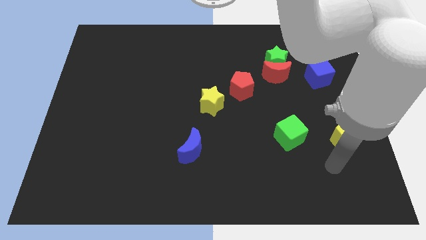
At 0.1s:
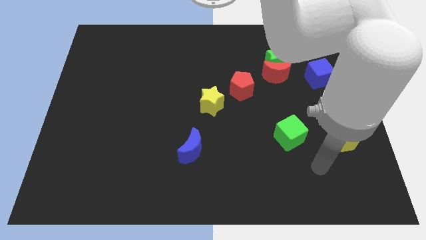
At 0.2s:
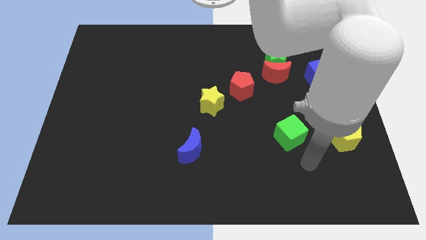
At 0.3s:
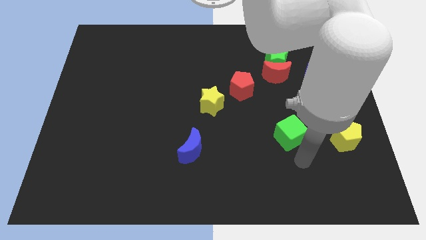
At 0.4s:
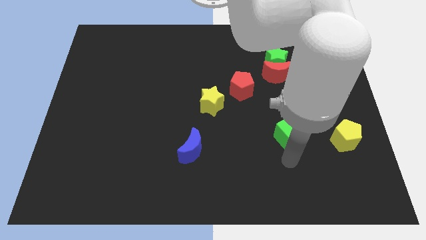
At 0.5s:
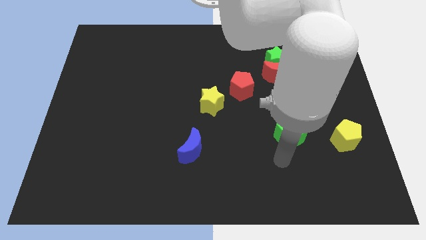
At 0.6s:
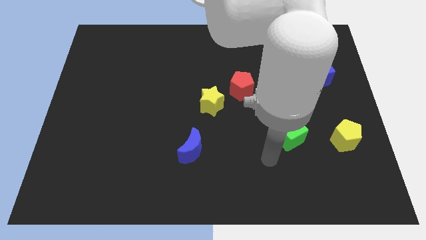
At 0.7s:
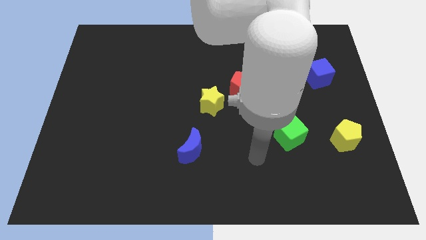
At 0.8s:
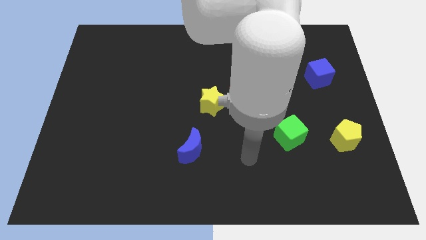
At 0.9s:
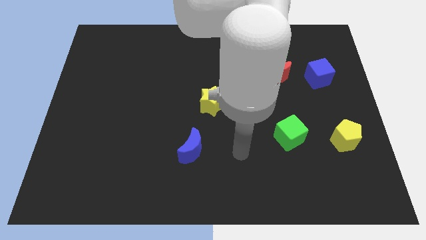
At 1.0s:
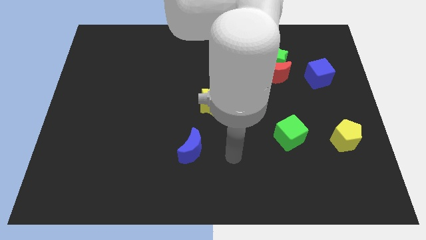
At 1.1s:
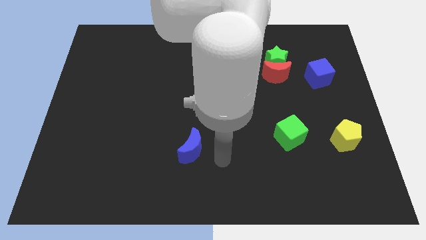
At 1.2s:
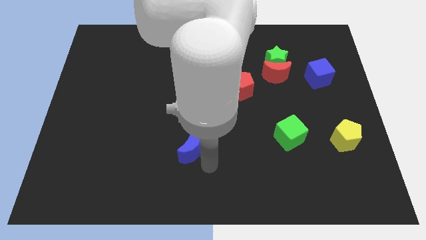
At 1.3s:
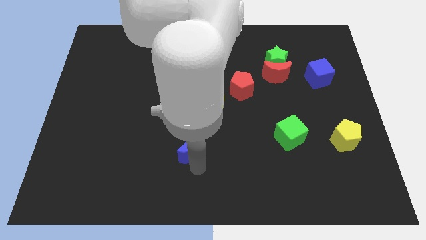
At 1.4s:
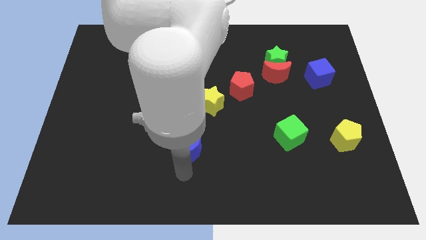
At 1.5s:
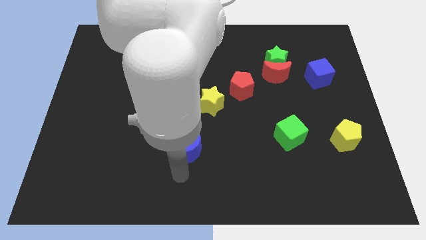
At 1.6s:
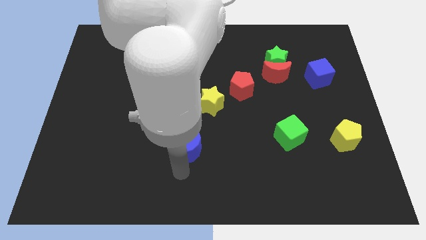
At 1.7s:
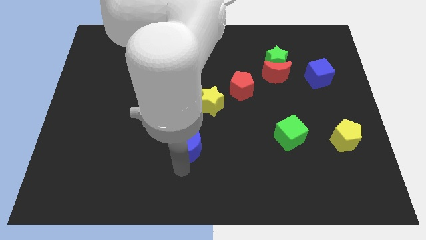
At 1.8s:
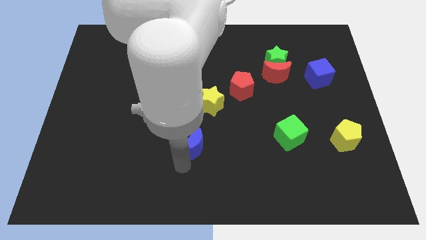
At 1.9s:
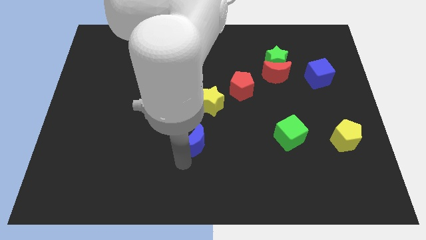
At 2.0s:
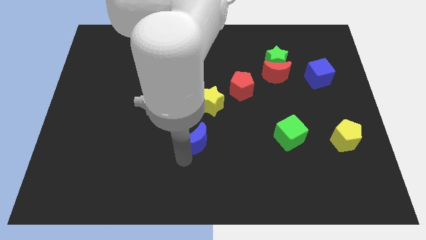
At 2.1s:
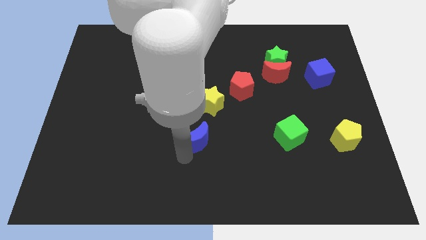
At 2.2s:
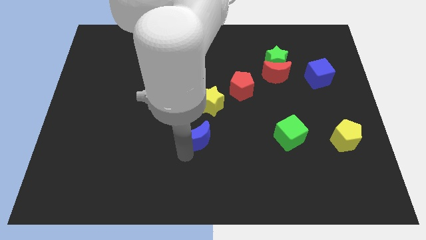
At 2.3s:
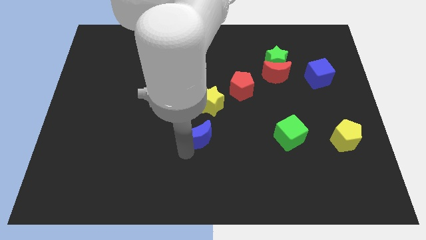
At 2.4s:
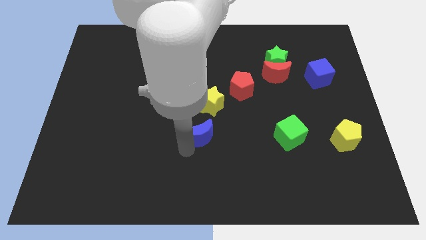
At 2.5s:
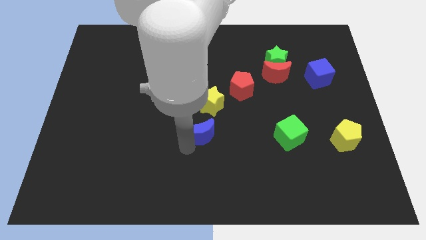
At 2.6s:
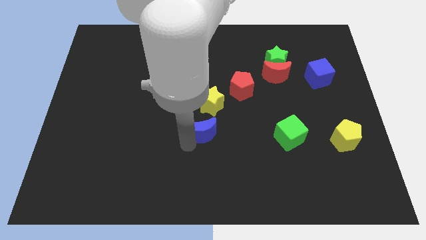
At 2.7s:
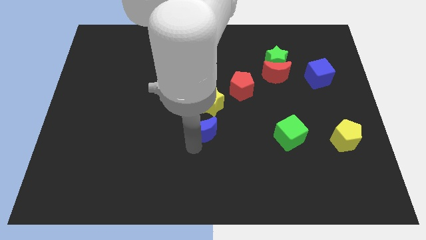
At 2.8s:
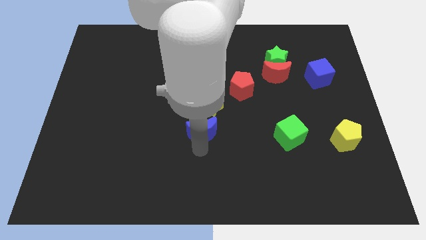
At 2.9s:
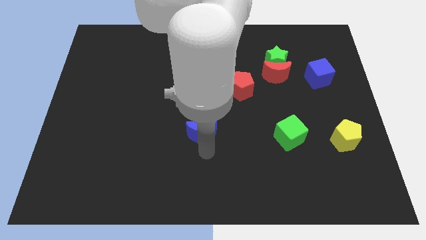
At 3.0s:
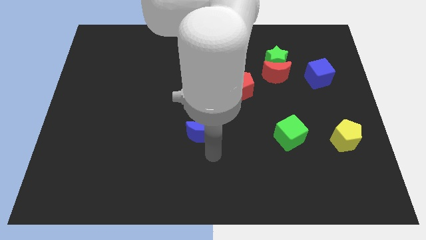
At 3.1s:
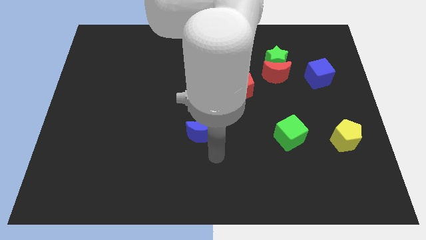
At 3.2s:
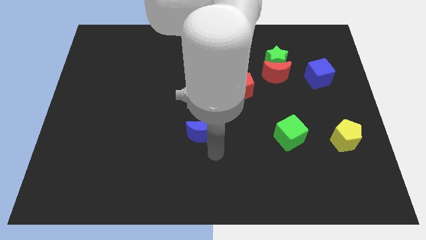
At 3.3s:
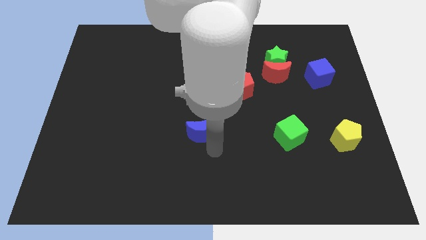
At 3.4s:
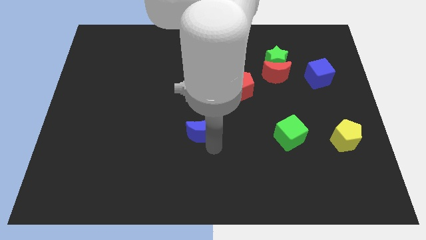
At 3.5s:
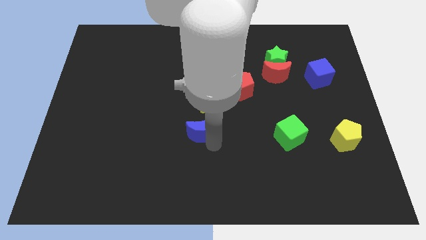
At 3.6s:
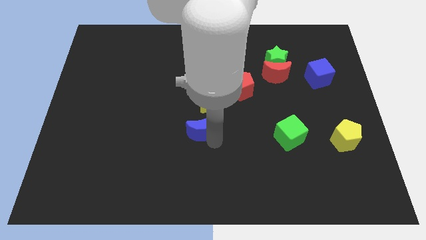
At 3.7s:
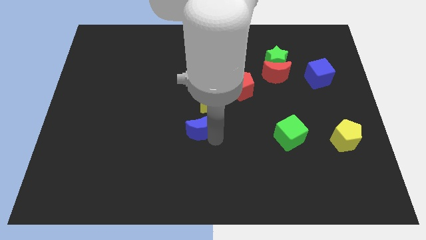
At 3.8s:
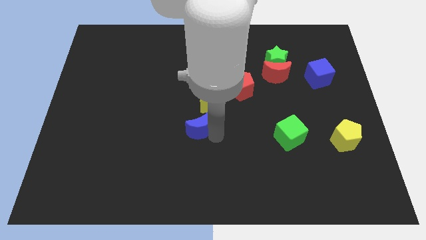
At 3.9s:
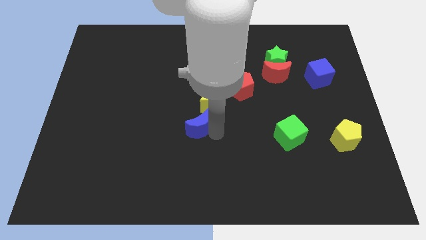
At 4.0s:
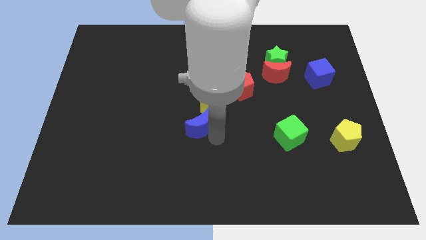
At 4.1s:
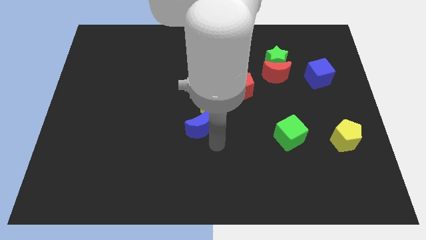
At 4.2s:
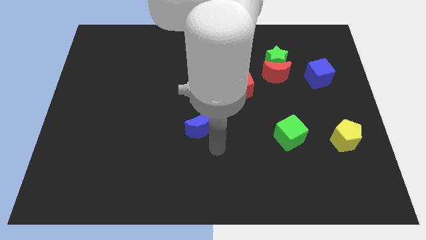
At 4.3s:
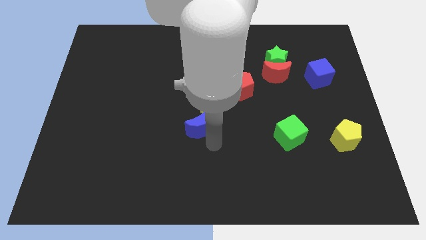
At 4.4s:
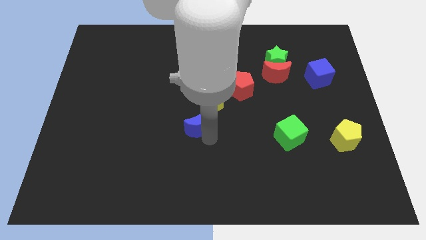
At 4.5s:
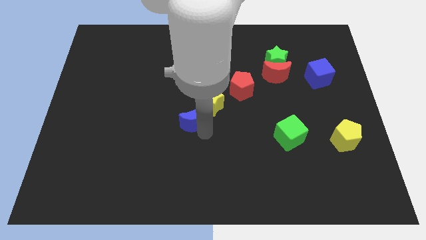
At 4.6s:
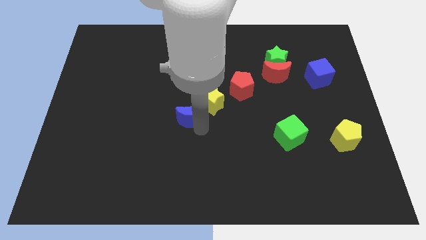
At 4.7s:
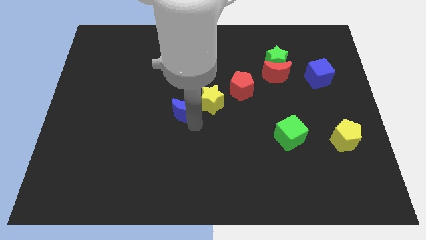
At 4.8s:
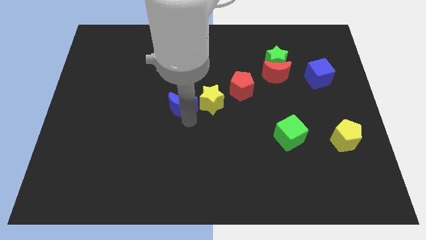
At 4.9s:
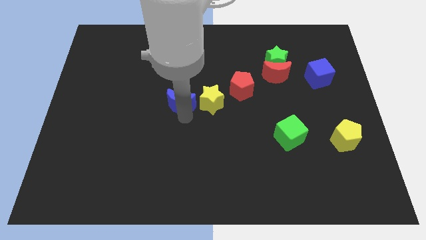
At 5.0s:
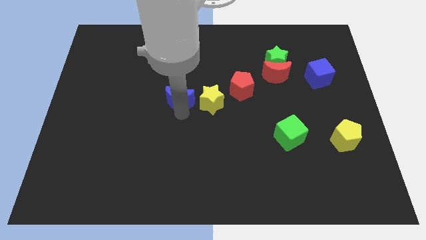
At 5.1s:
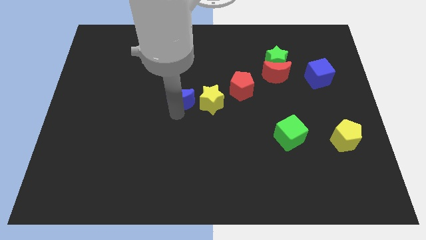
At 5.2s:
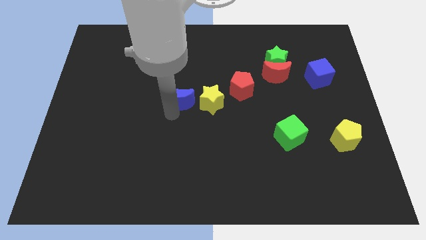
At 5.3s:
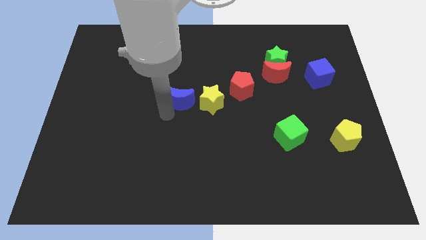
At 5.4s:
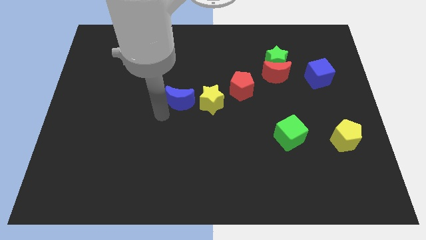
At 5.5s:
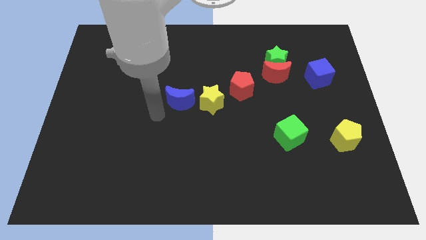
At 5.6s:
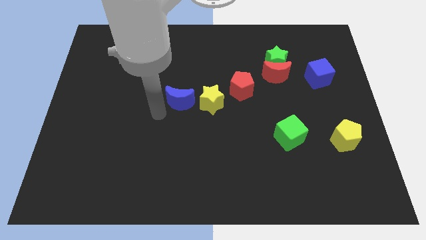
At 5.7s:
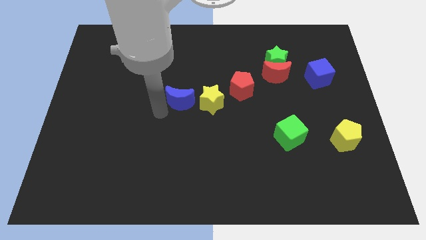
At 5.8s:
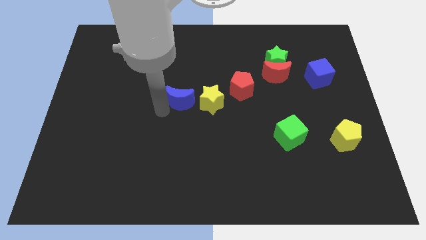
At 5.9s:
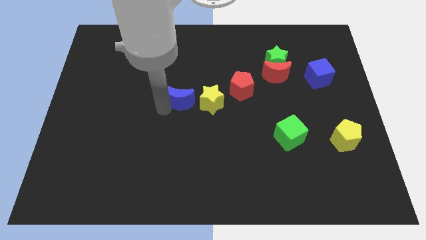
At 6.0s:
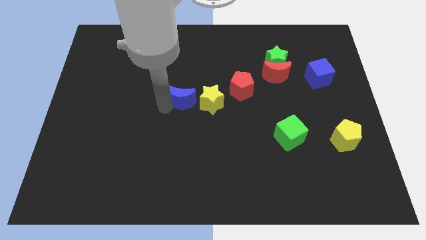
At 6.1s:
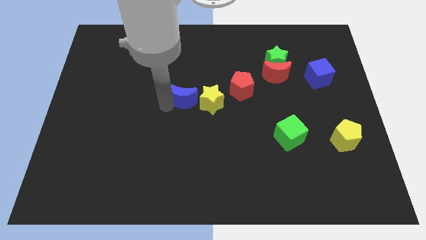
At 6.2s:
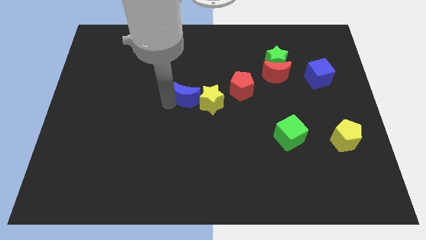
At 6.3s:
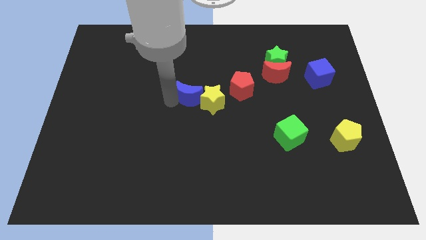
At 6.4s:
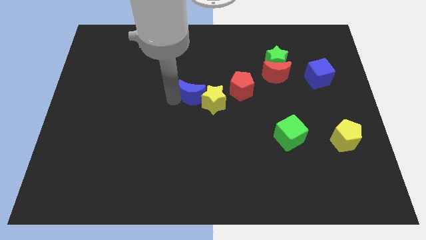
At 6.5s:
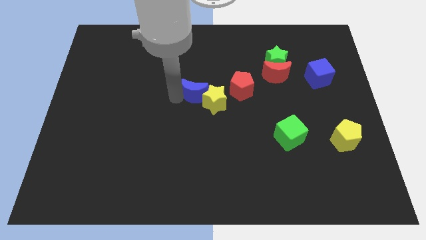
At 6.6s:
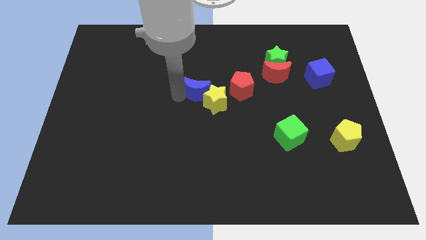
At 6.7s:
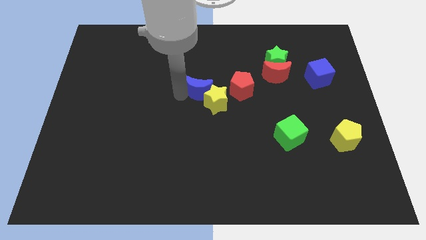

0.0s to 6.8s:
put the blue moon above the yellow star

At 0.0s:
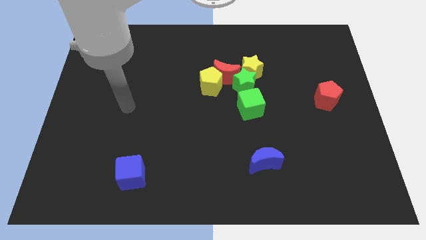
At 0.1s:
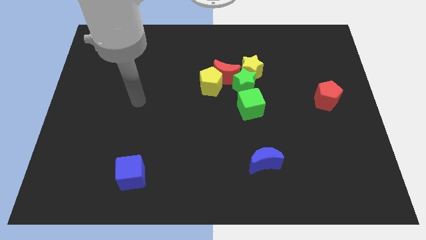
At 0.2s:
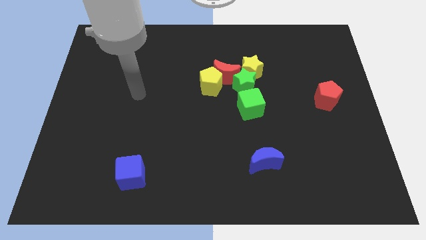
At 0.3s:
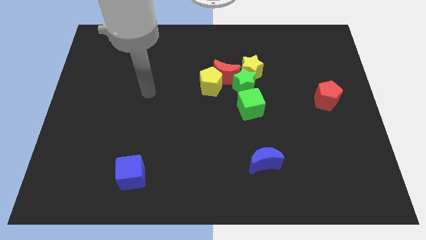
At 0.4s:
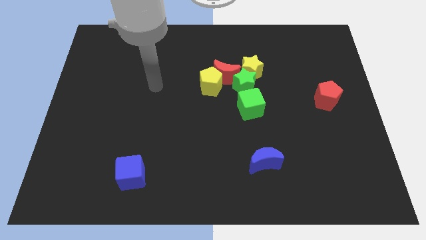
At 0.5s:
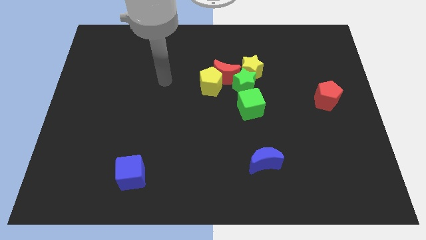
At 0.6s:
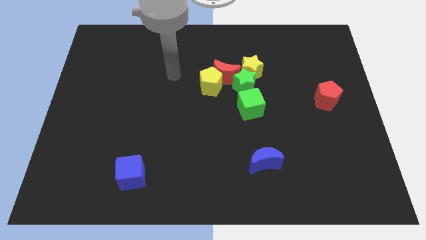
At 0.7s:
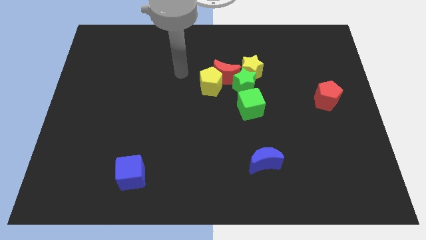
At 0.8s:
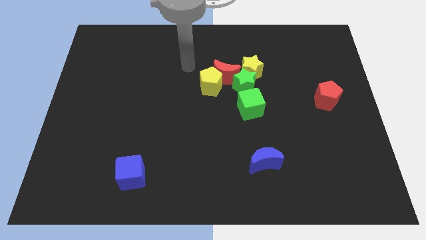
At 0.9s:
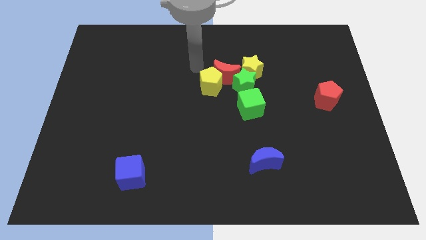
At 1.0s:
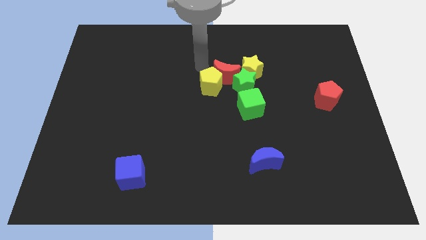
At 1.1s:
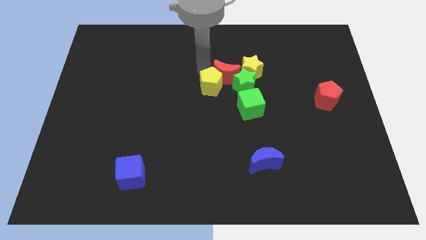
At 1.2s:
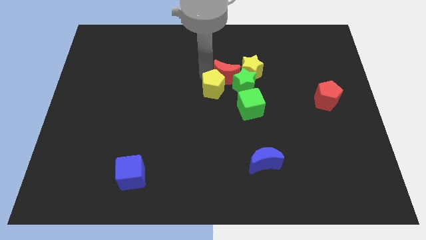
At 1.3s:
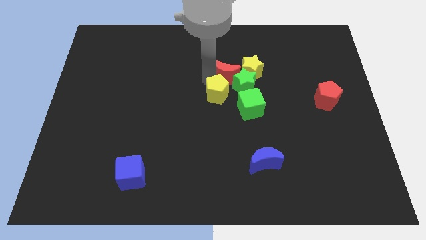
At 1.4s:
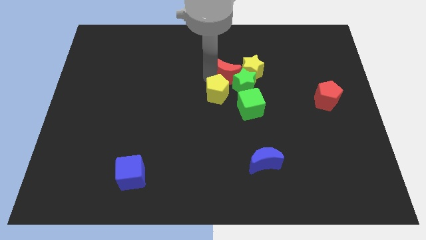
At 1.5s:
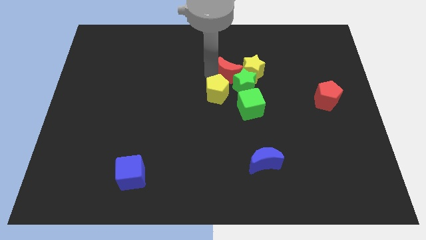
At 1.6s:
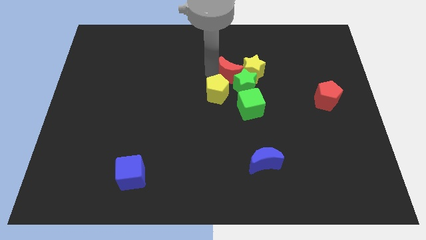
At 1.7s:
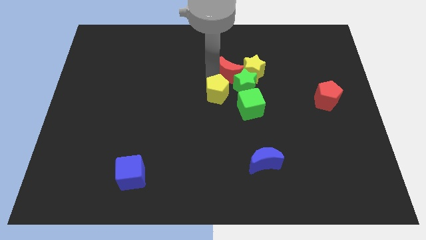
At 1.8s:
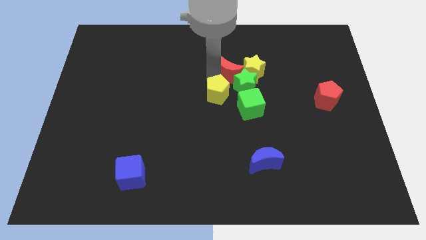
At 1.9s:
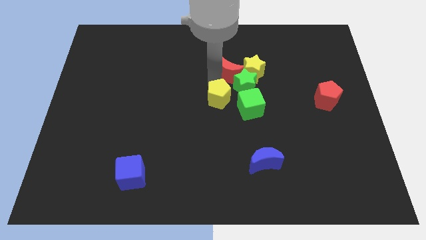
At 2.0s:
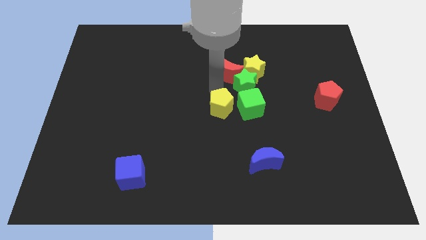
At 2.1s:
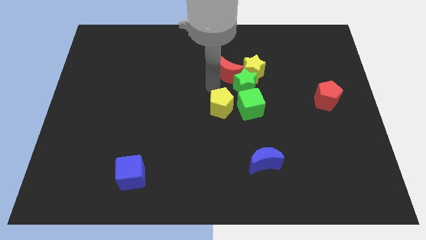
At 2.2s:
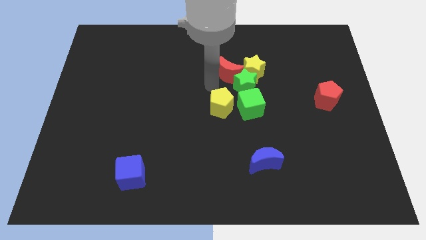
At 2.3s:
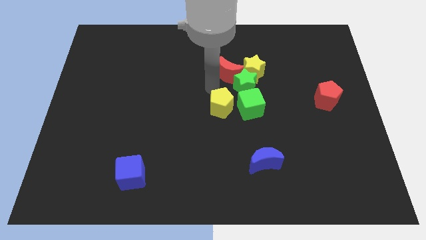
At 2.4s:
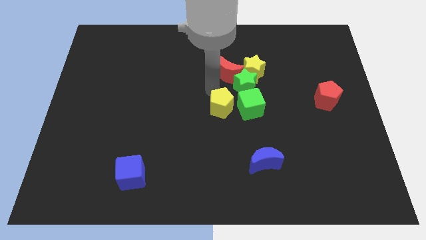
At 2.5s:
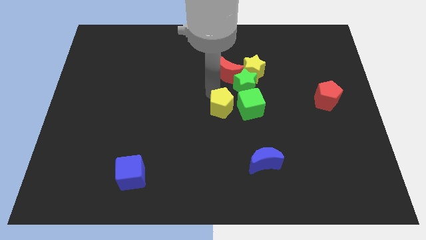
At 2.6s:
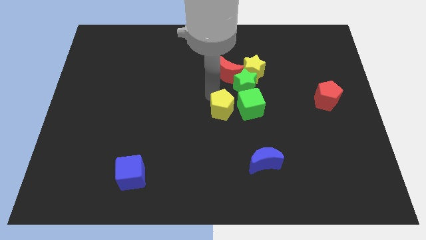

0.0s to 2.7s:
slide the yellow pentagon to the bottom left side of the green cube
